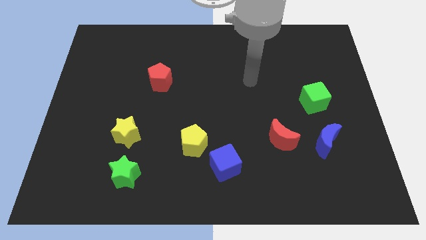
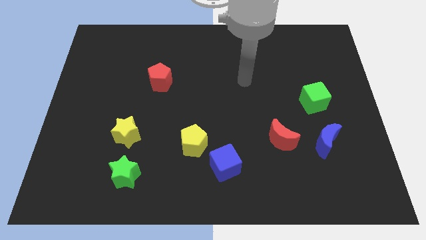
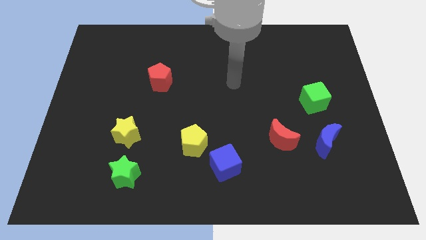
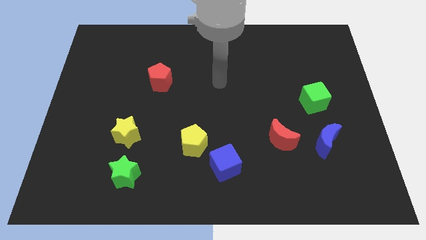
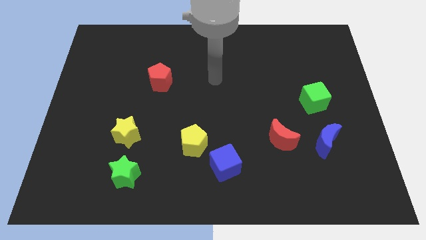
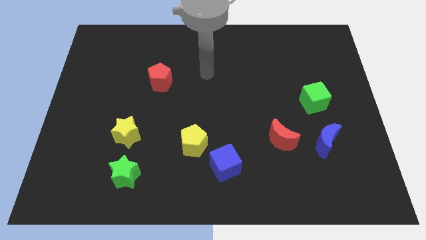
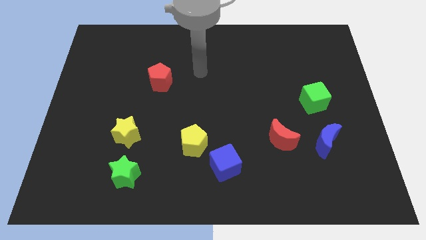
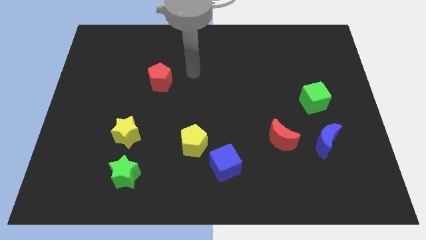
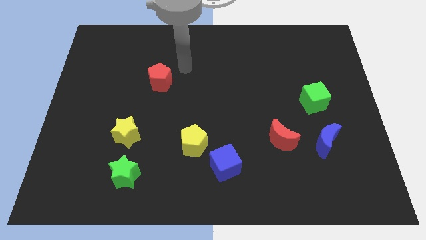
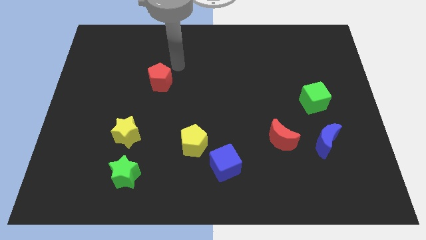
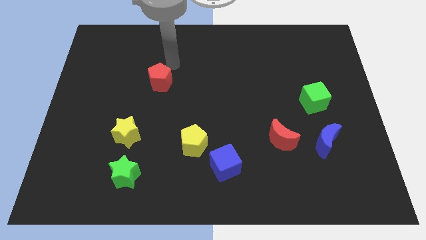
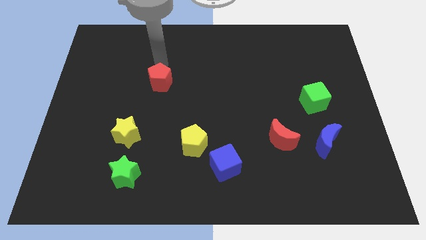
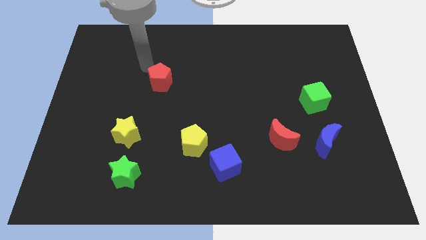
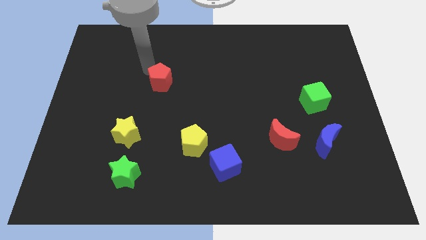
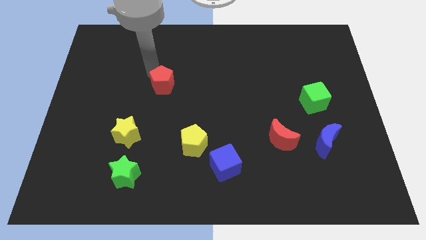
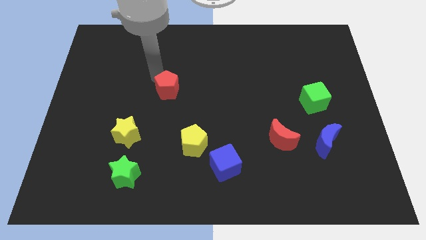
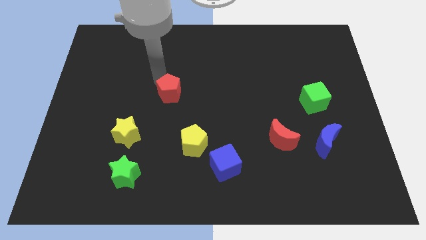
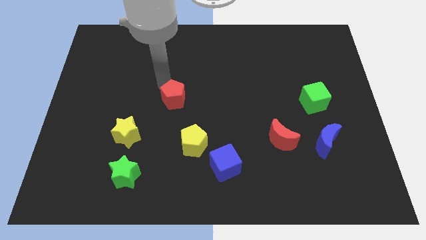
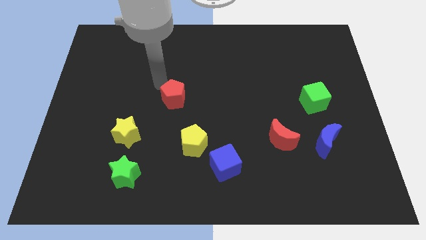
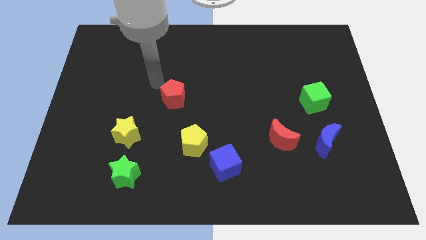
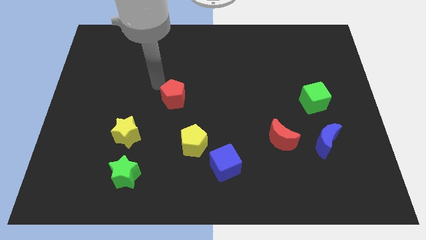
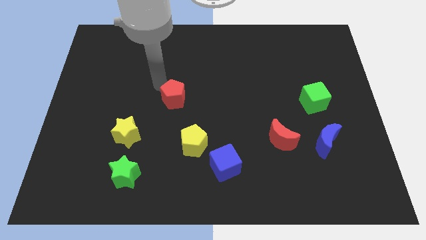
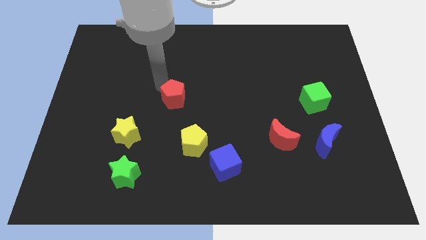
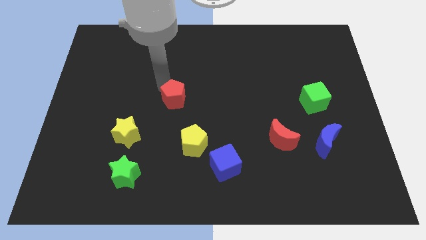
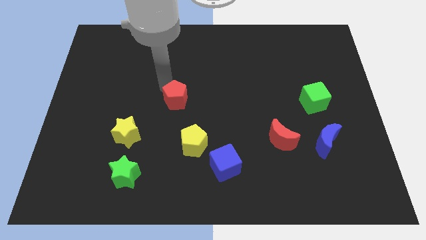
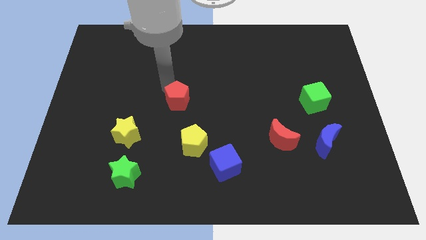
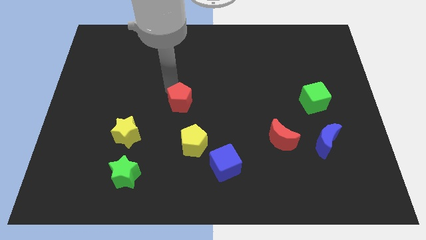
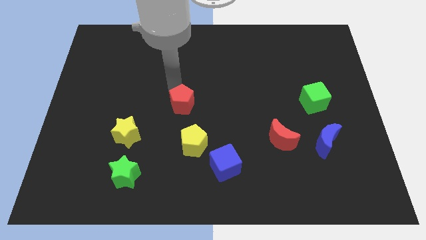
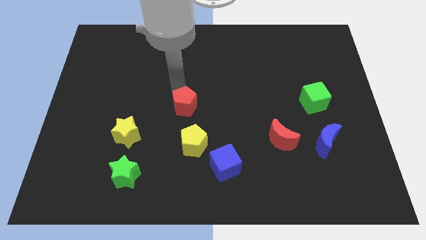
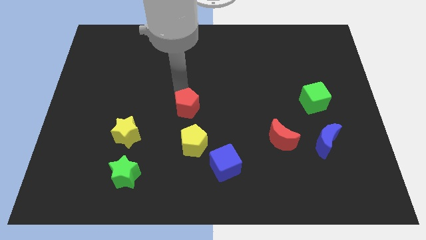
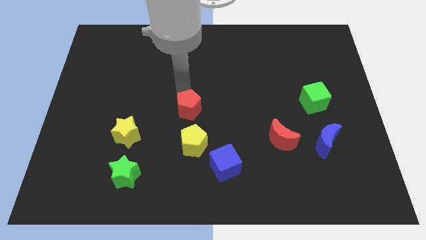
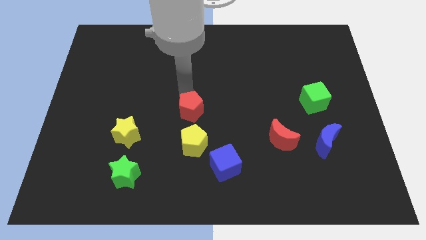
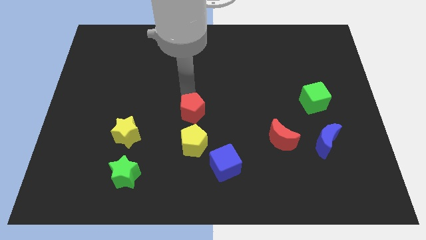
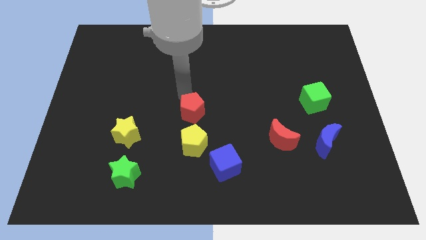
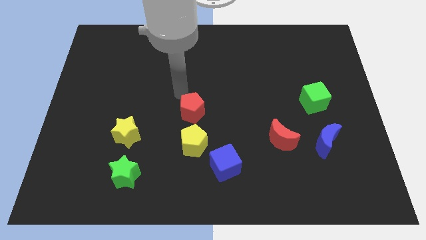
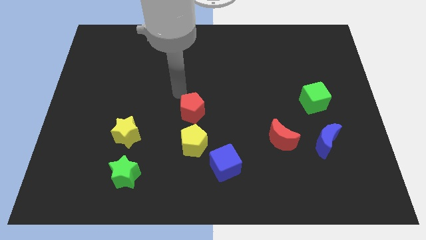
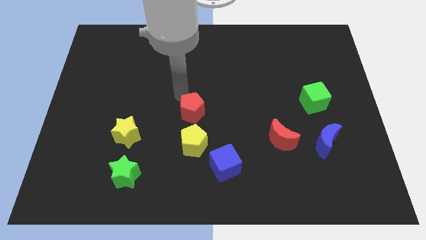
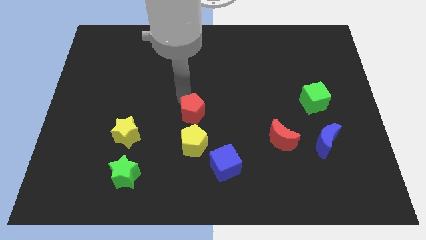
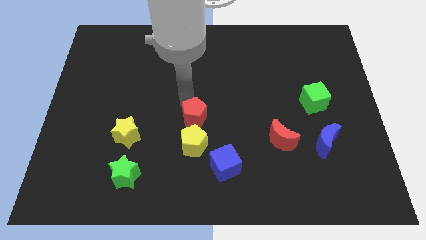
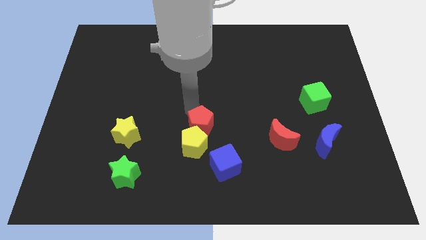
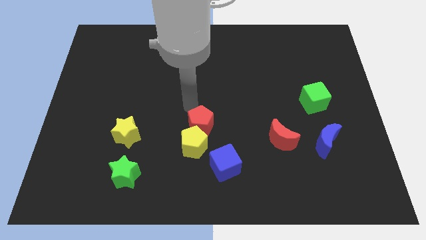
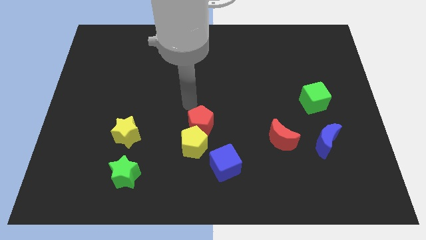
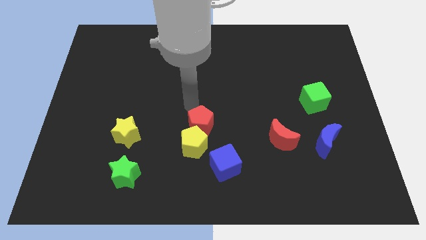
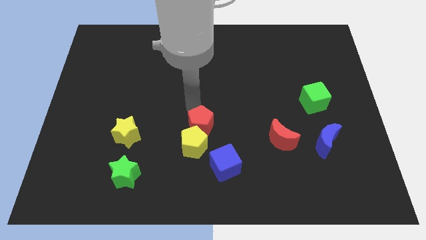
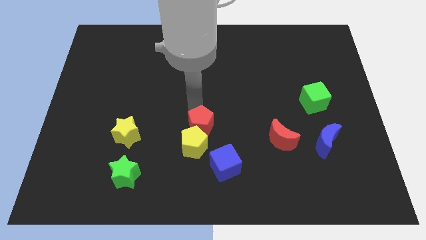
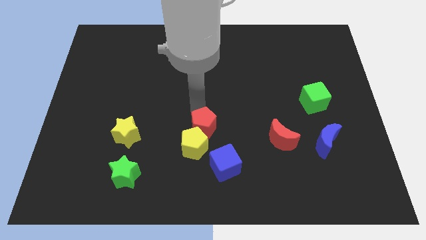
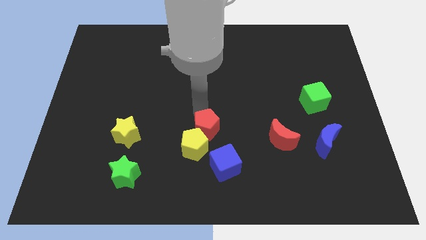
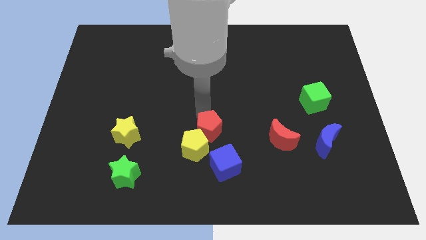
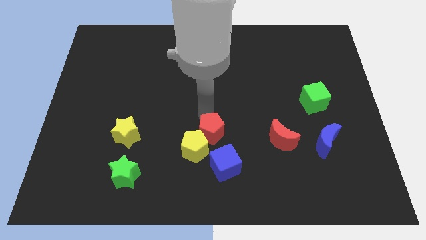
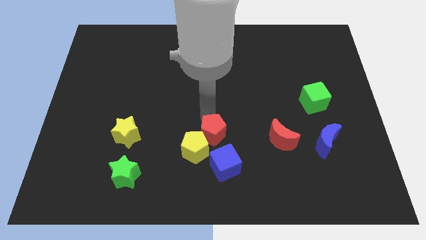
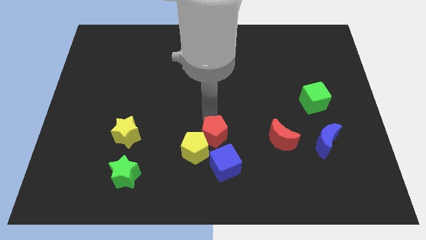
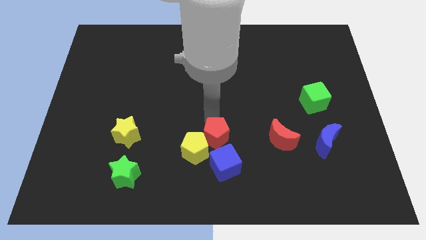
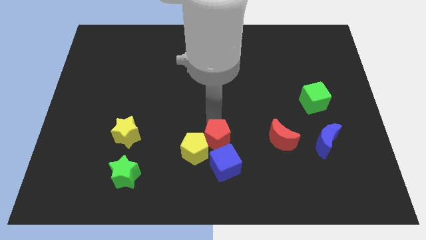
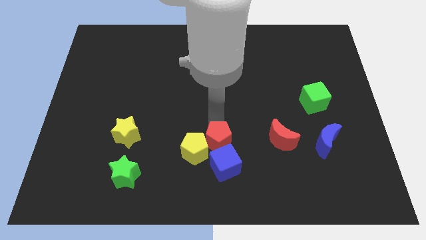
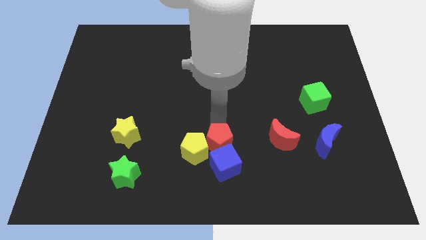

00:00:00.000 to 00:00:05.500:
move the red pentagon to the blue cube

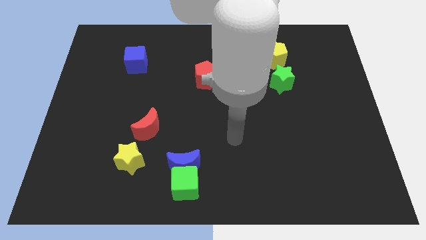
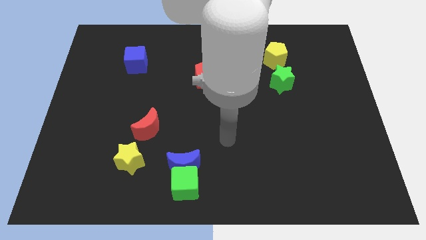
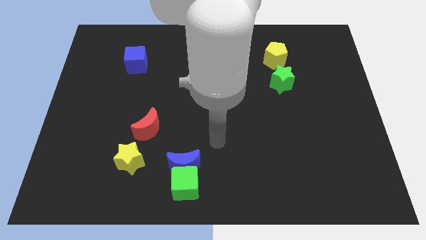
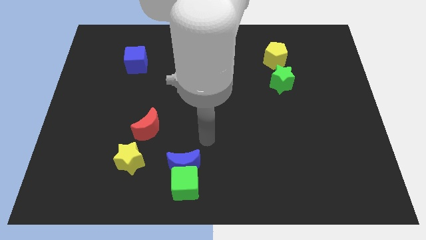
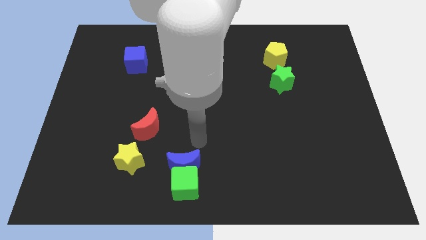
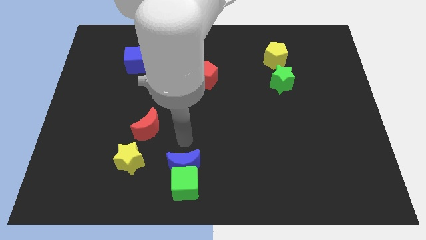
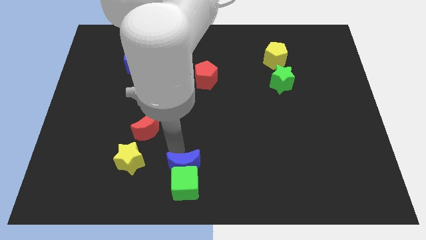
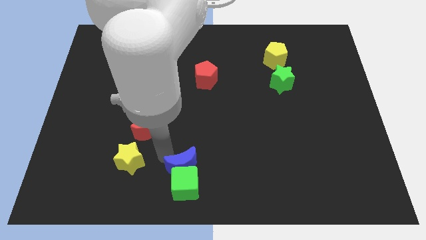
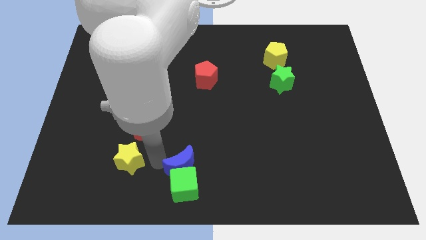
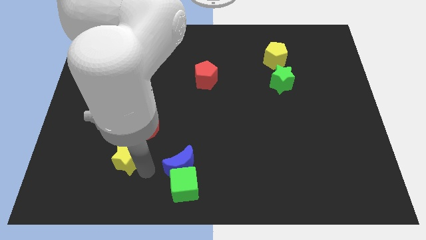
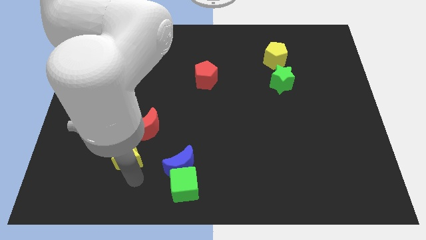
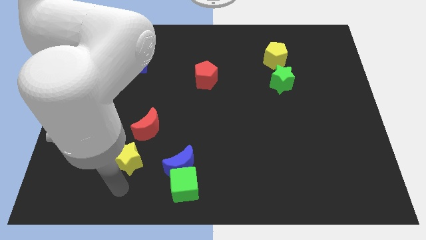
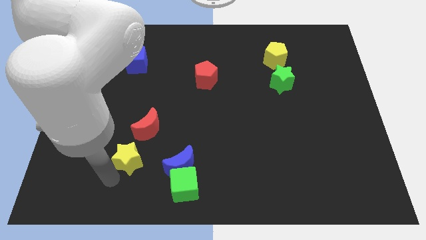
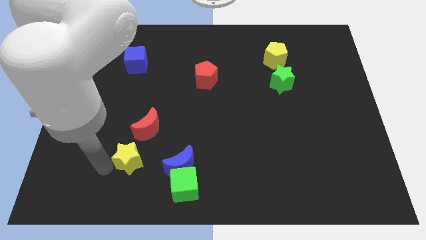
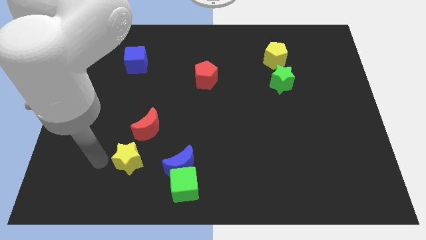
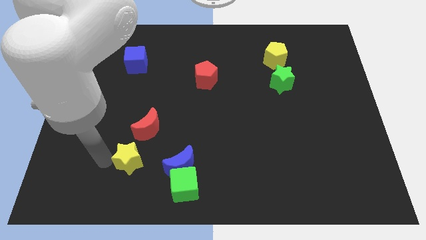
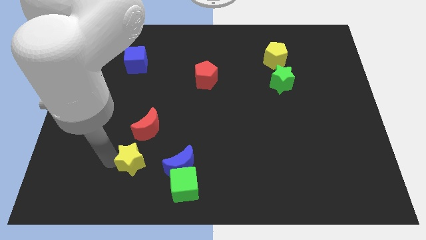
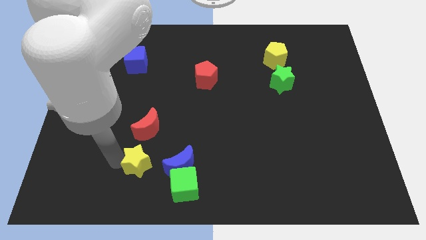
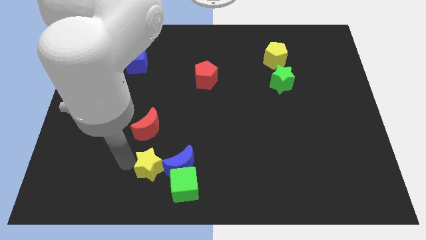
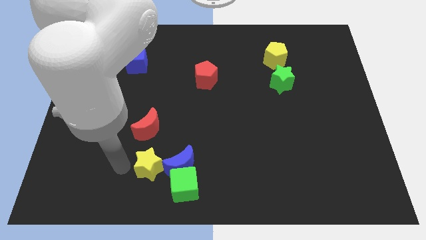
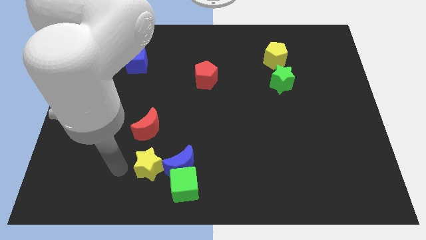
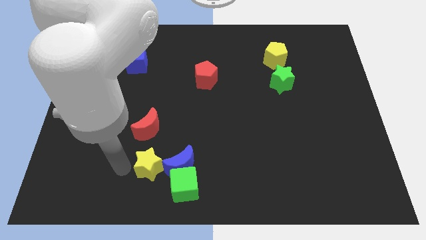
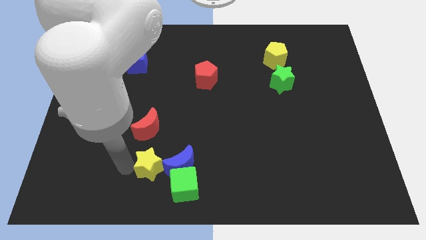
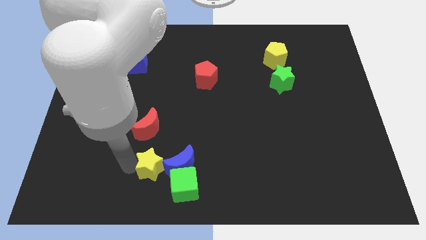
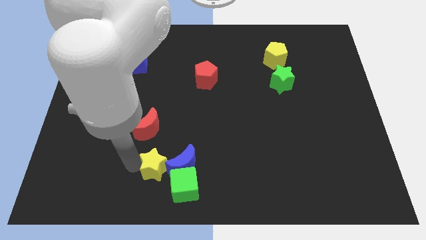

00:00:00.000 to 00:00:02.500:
slide the yellow star to the blue moon
